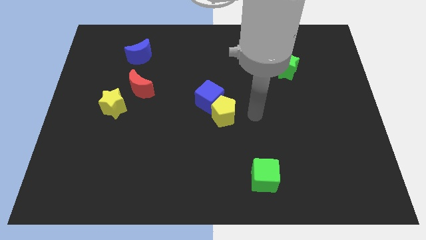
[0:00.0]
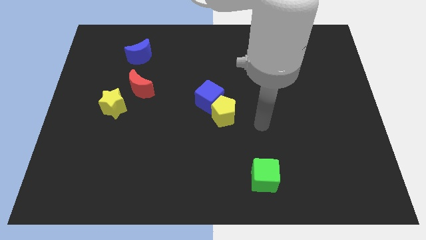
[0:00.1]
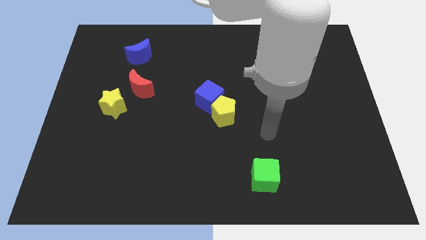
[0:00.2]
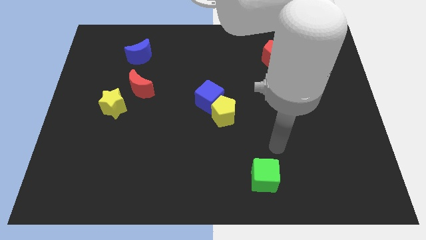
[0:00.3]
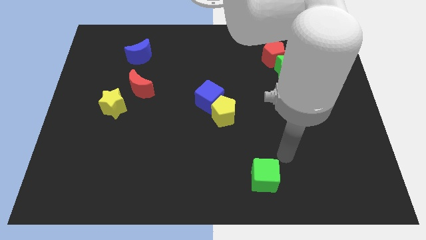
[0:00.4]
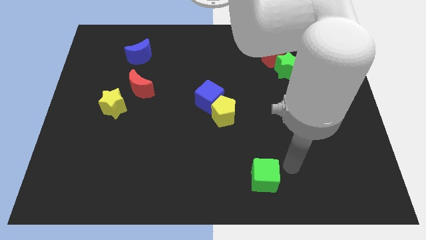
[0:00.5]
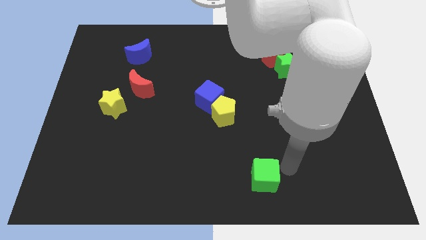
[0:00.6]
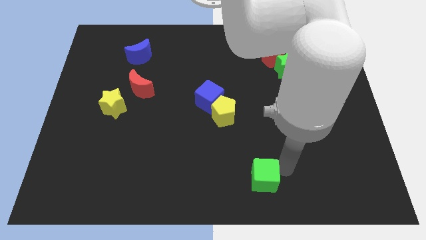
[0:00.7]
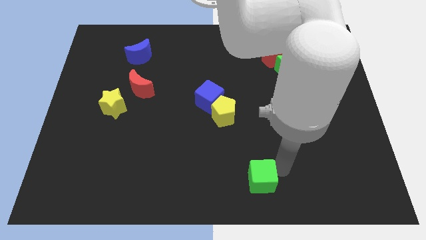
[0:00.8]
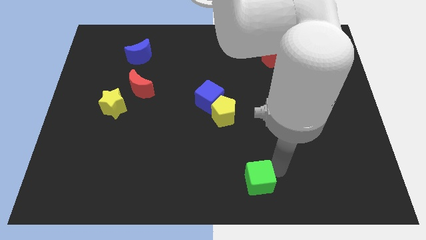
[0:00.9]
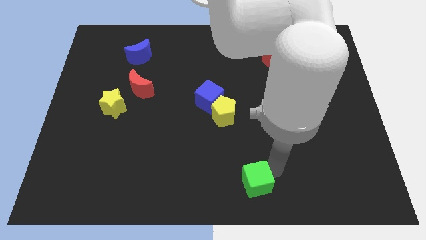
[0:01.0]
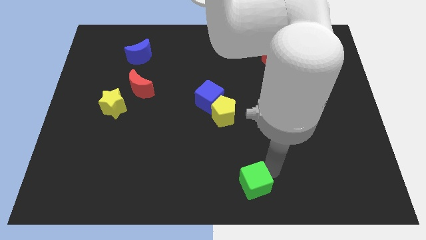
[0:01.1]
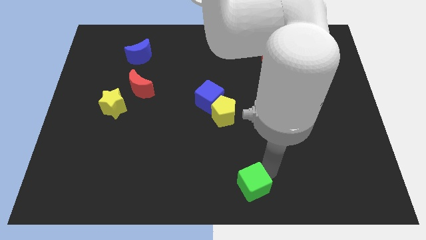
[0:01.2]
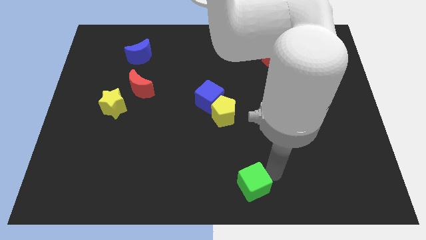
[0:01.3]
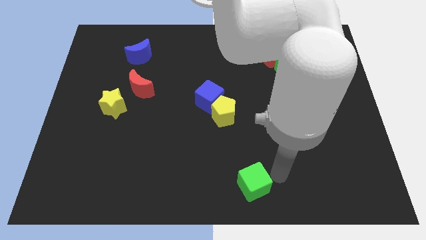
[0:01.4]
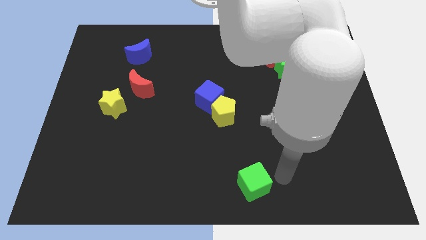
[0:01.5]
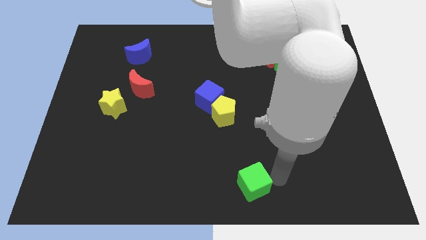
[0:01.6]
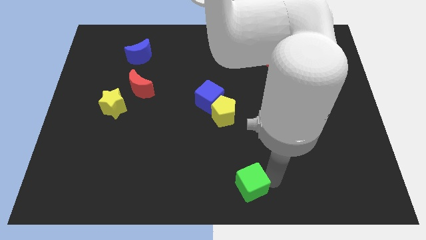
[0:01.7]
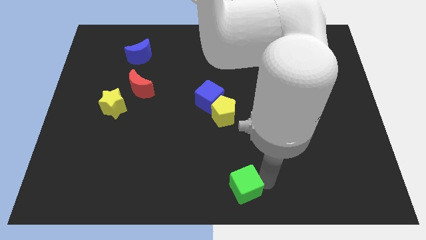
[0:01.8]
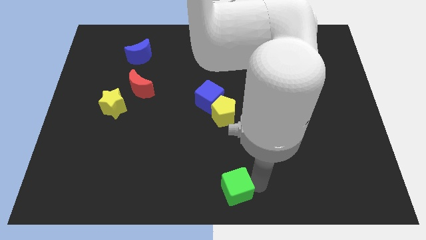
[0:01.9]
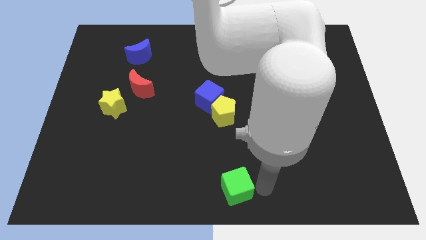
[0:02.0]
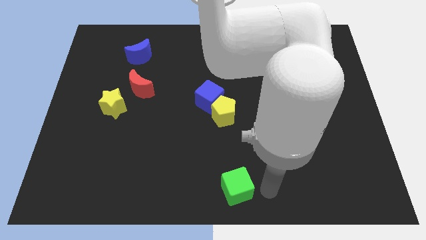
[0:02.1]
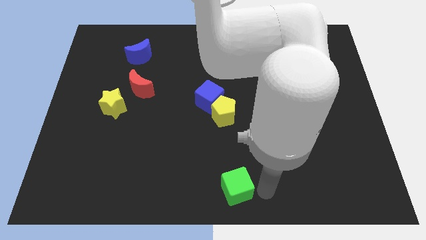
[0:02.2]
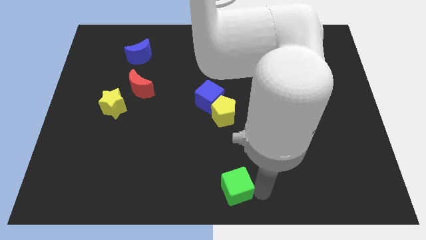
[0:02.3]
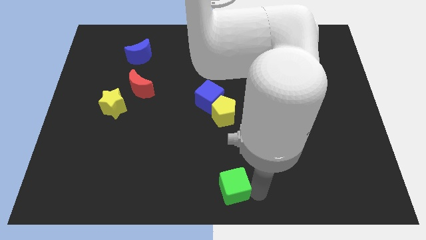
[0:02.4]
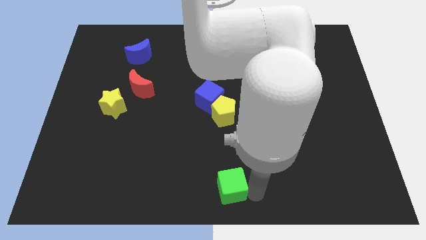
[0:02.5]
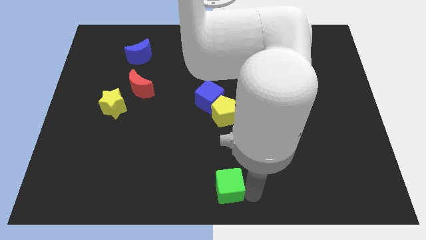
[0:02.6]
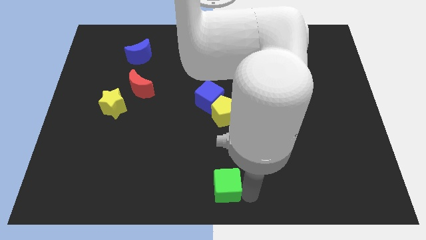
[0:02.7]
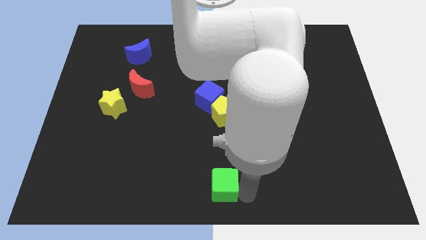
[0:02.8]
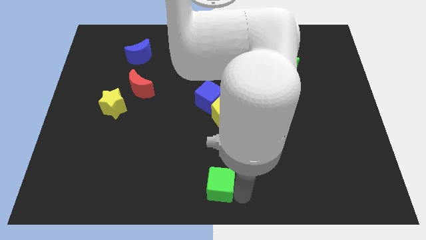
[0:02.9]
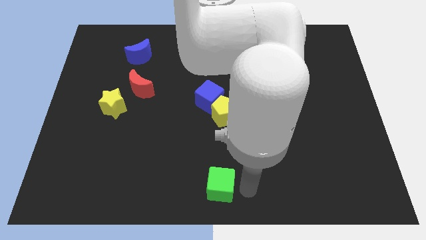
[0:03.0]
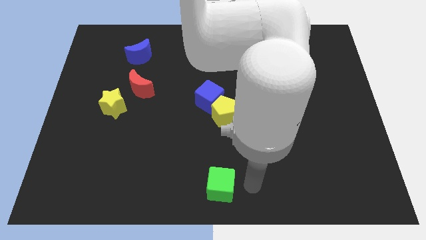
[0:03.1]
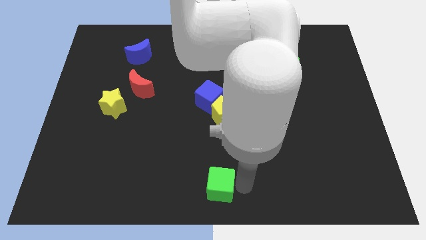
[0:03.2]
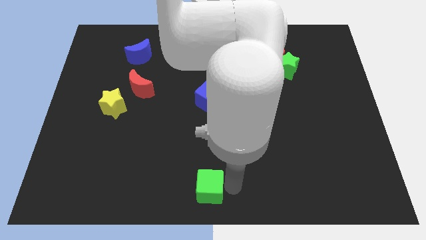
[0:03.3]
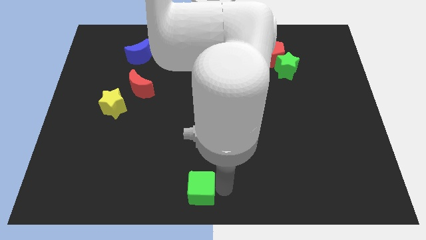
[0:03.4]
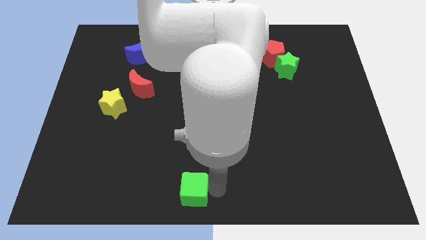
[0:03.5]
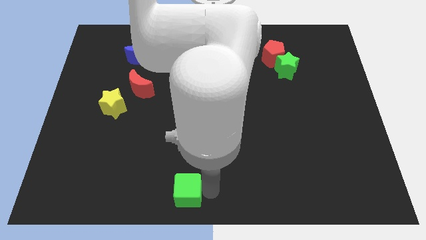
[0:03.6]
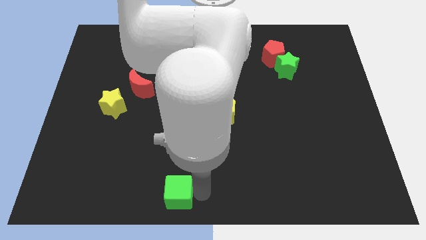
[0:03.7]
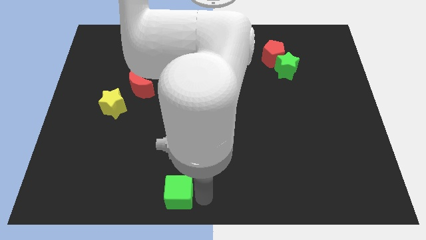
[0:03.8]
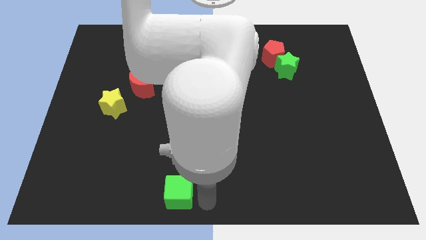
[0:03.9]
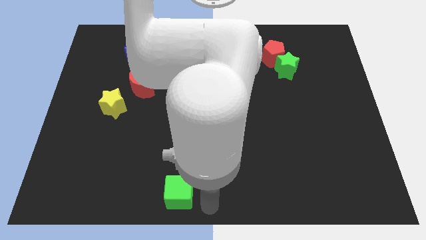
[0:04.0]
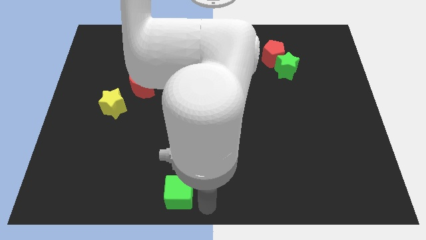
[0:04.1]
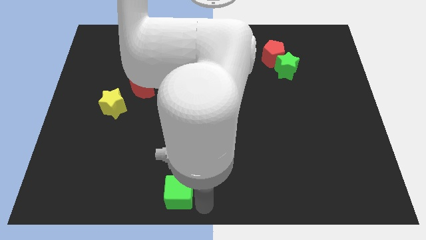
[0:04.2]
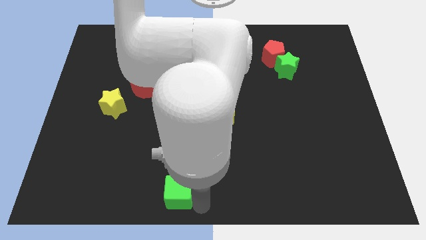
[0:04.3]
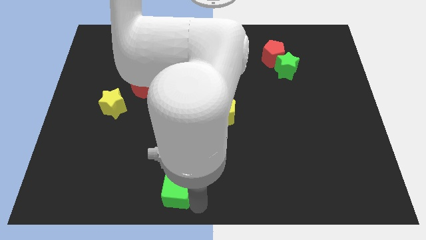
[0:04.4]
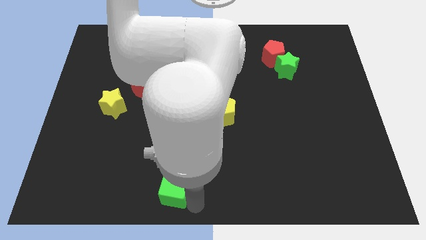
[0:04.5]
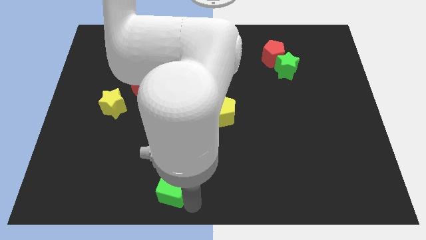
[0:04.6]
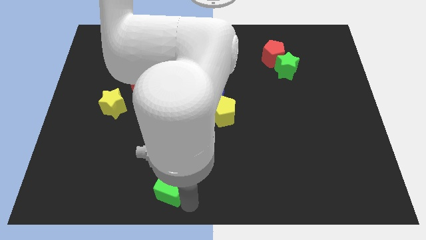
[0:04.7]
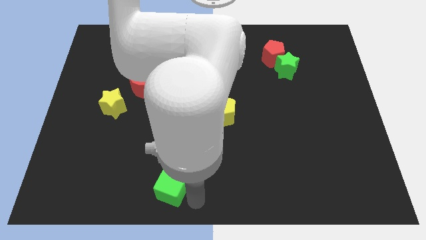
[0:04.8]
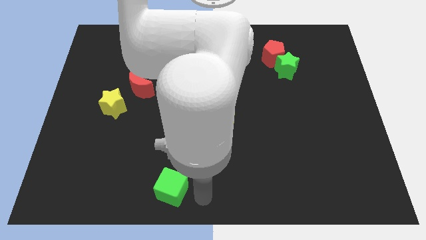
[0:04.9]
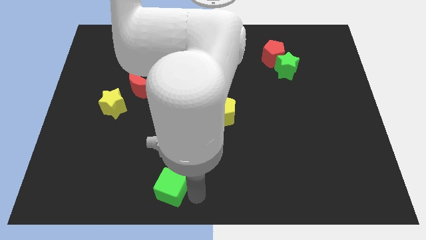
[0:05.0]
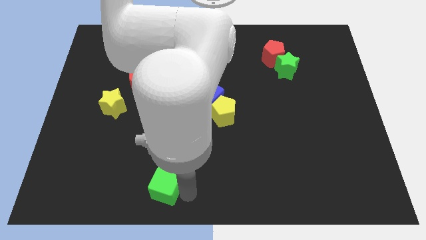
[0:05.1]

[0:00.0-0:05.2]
slide the green cube to the left

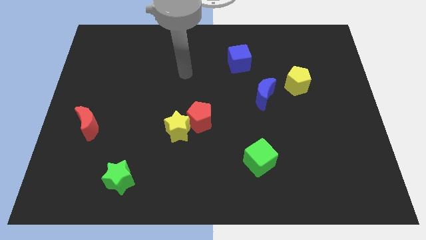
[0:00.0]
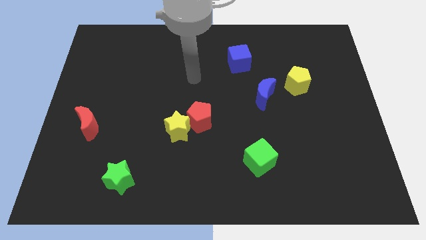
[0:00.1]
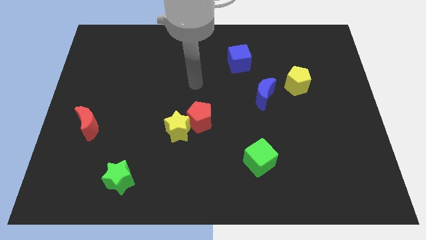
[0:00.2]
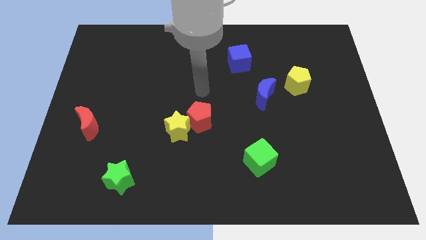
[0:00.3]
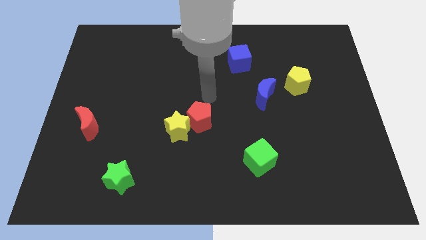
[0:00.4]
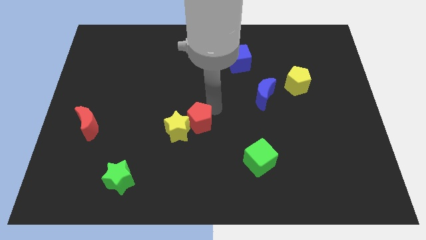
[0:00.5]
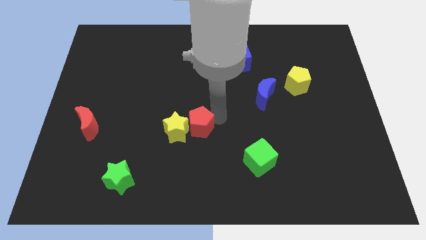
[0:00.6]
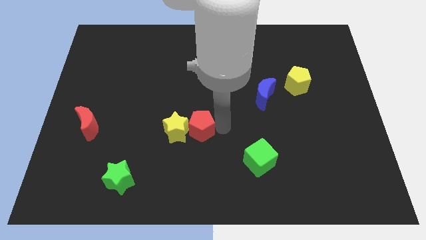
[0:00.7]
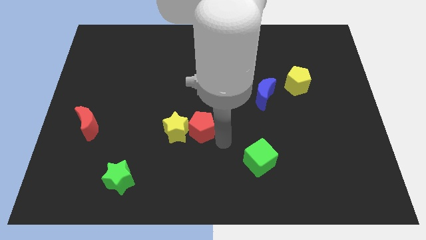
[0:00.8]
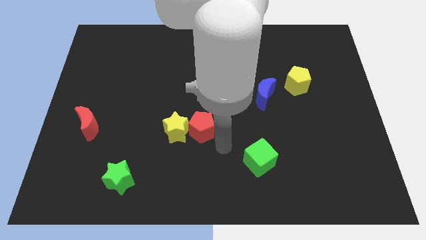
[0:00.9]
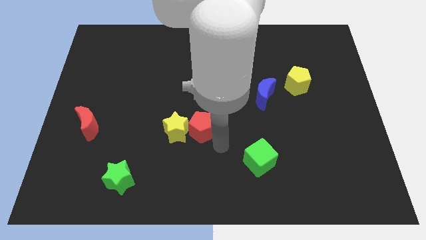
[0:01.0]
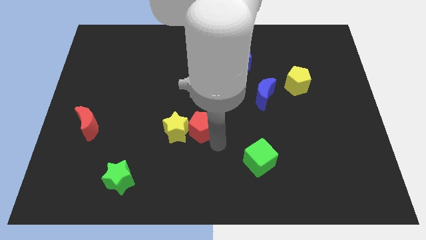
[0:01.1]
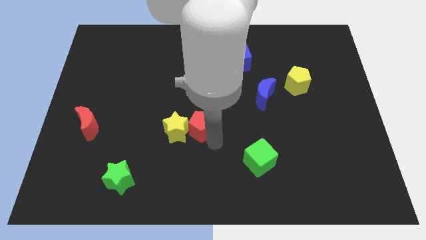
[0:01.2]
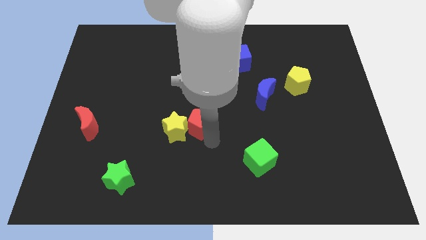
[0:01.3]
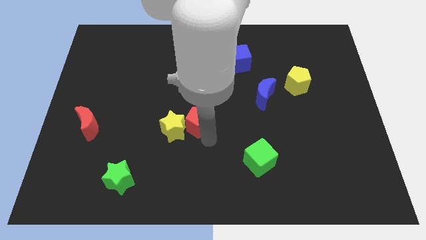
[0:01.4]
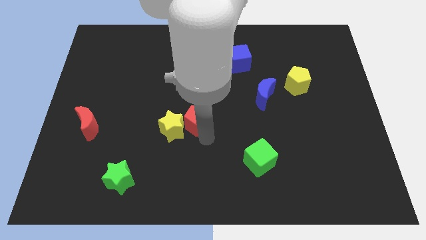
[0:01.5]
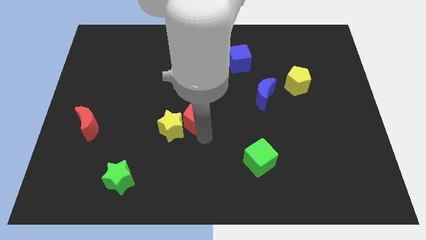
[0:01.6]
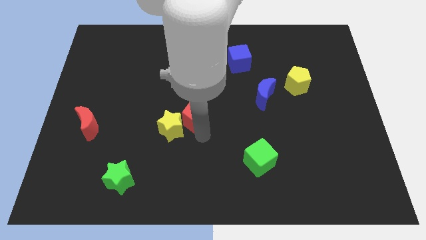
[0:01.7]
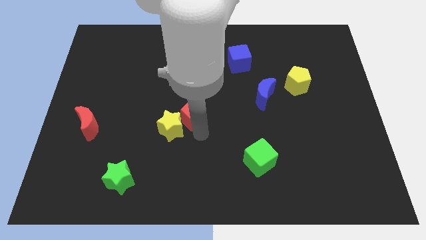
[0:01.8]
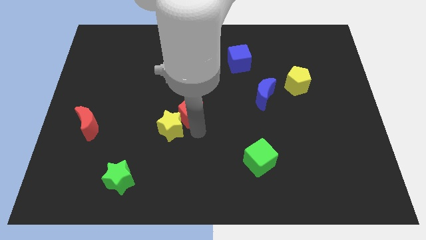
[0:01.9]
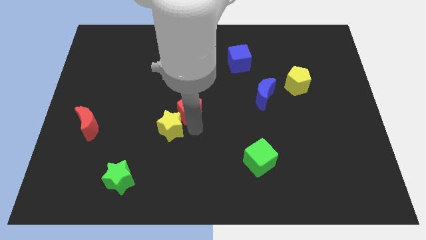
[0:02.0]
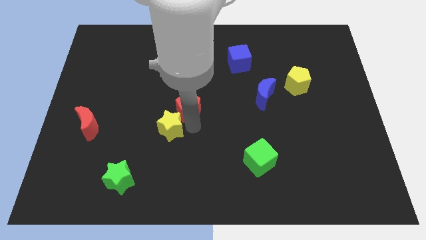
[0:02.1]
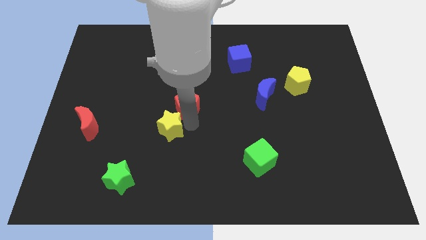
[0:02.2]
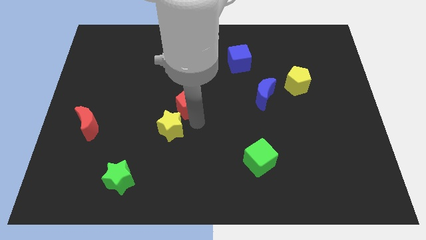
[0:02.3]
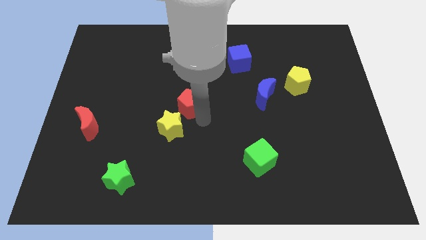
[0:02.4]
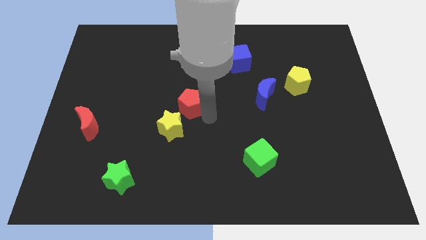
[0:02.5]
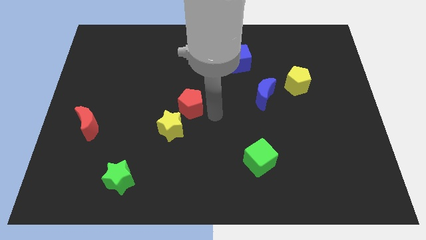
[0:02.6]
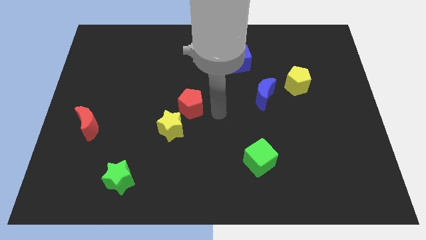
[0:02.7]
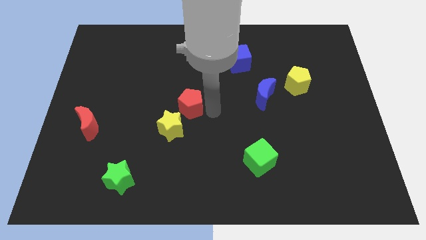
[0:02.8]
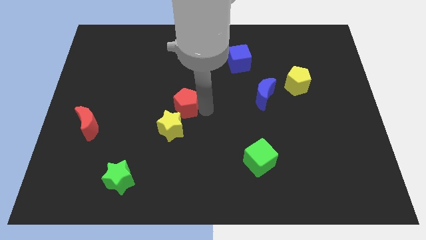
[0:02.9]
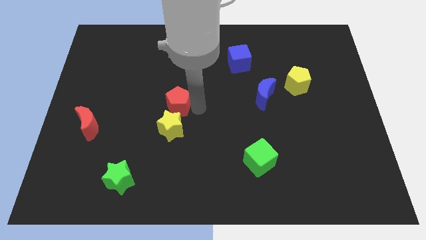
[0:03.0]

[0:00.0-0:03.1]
slide the red pentagon up and to the left diagonally somewhat
